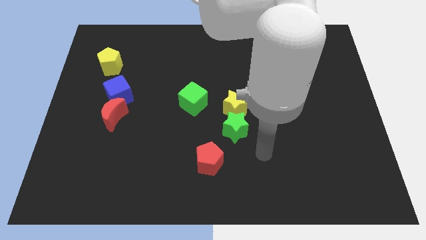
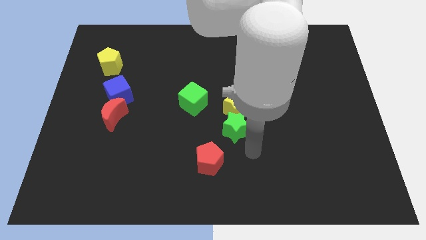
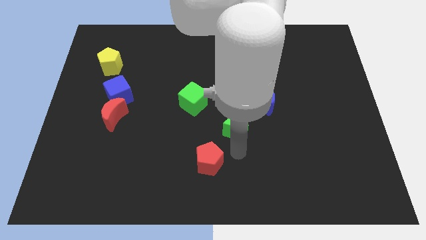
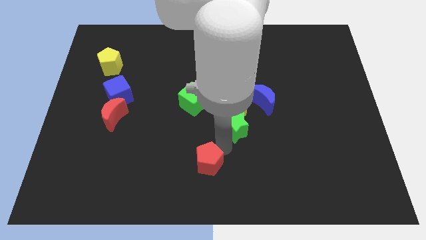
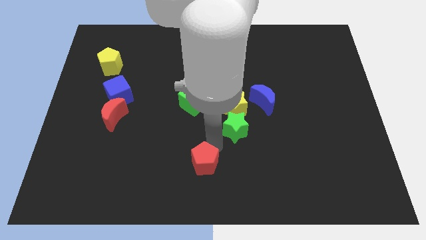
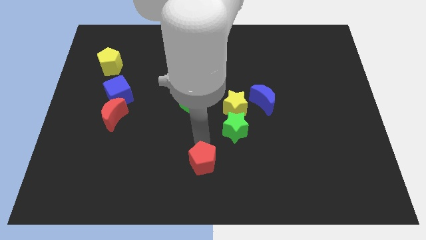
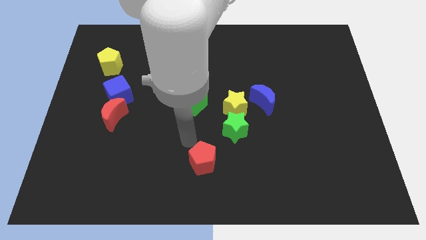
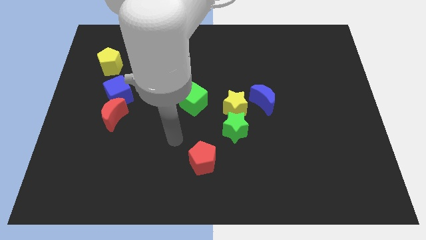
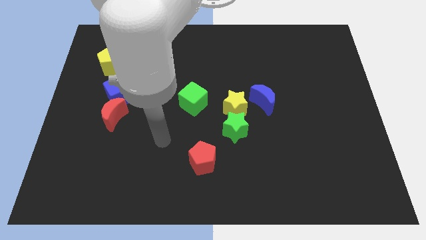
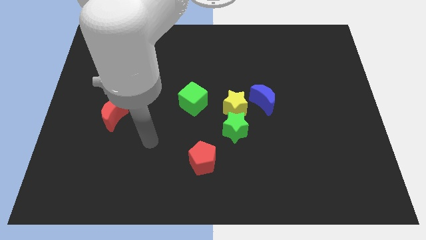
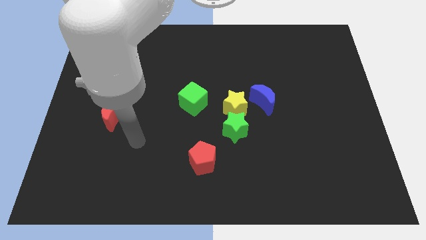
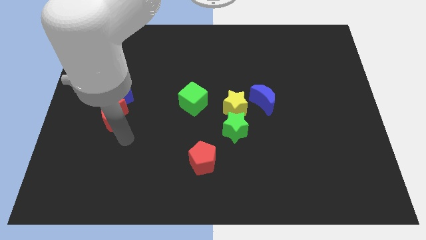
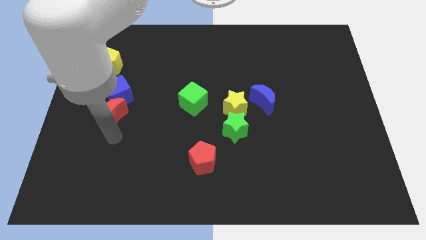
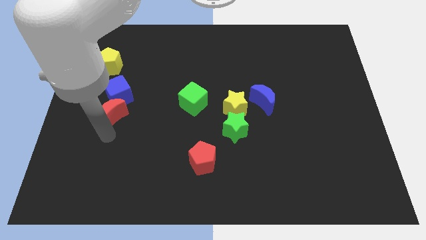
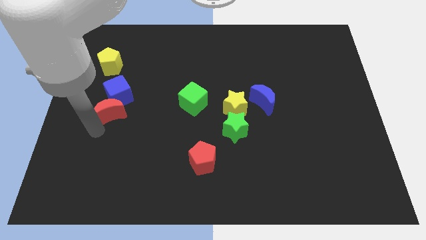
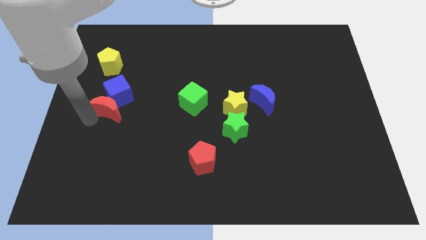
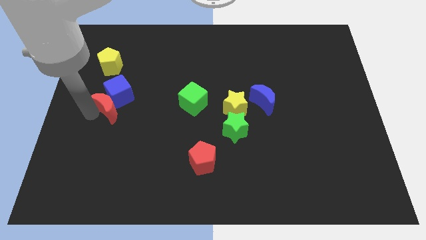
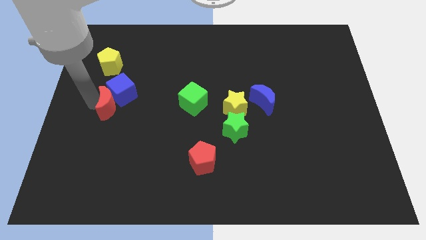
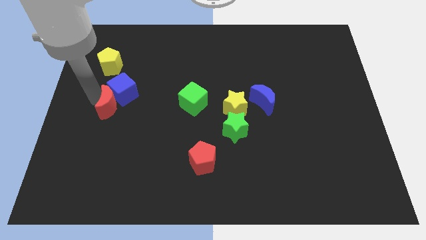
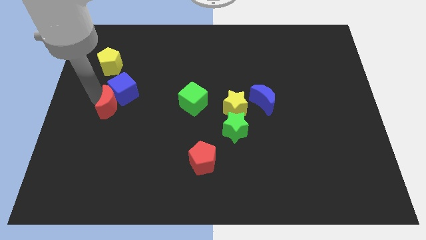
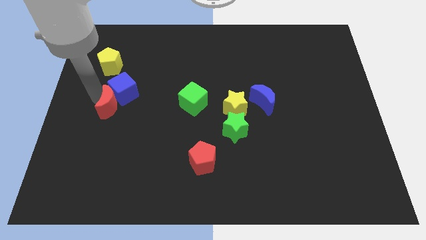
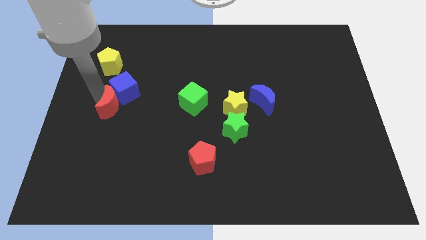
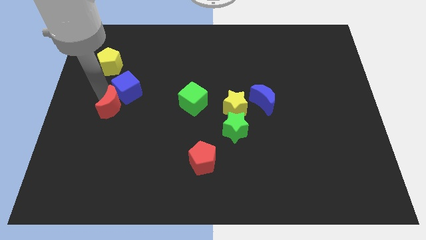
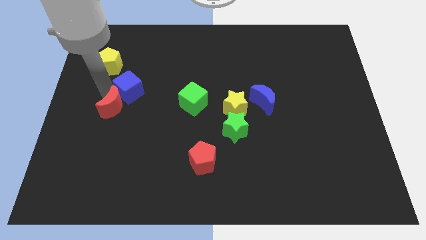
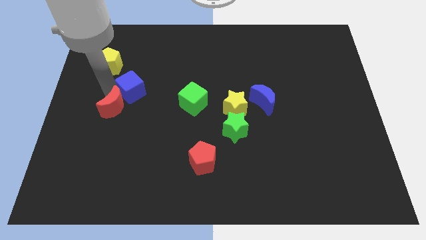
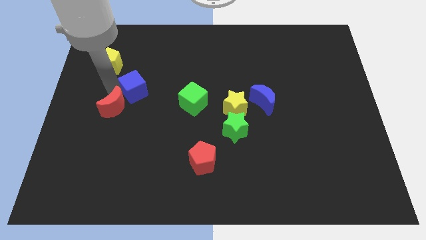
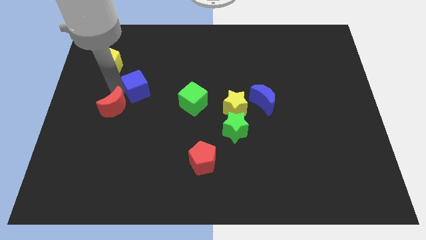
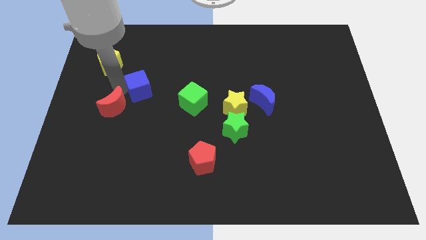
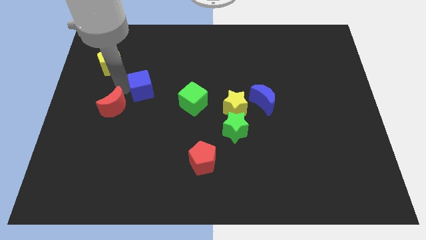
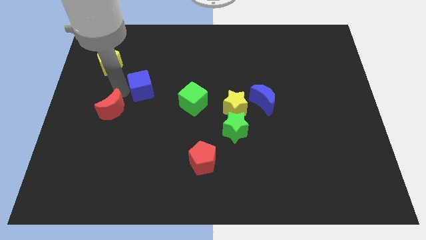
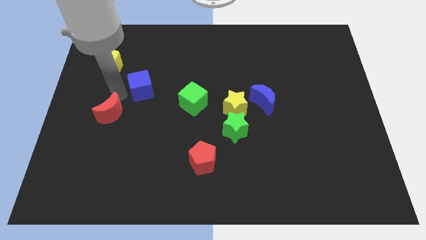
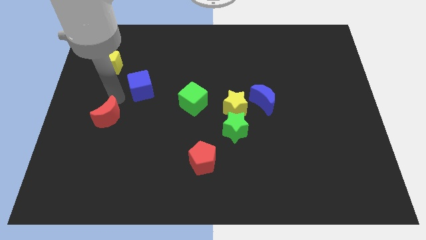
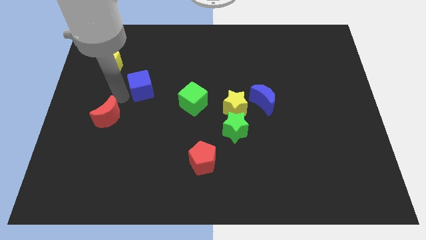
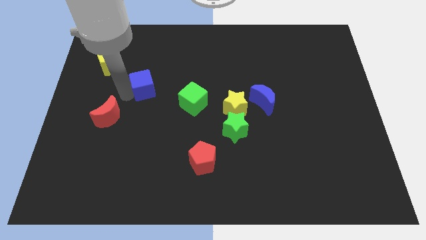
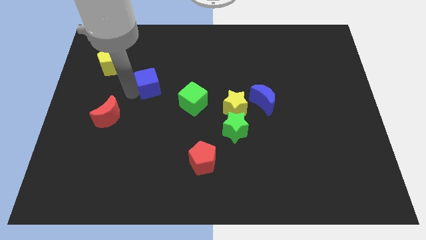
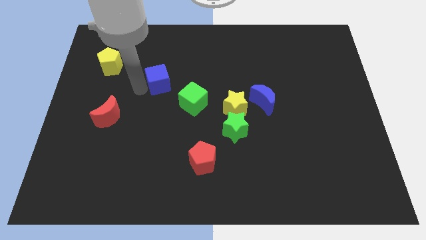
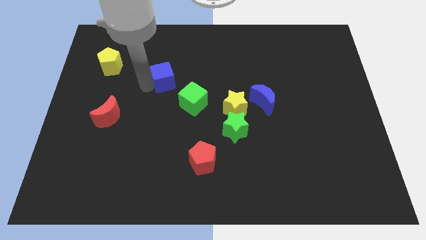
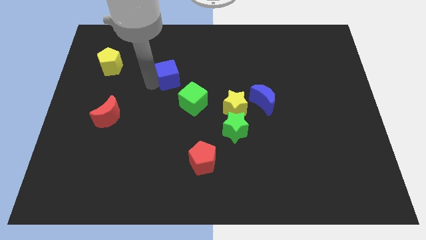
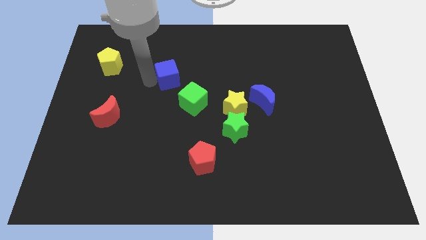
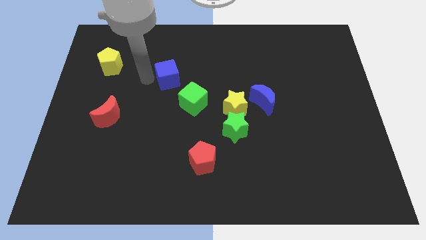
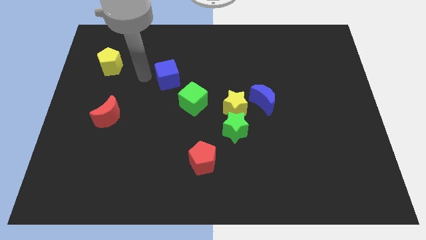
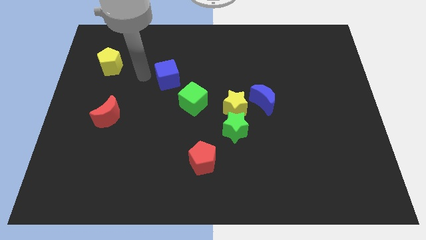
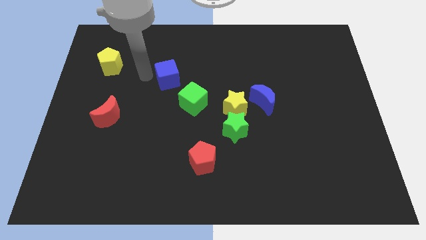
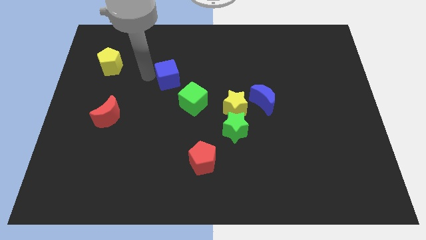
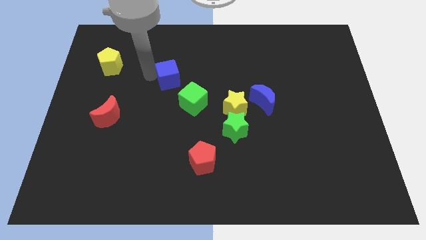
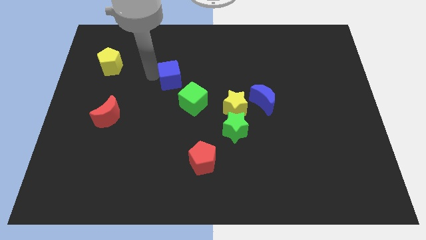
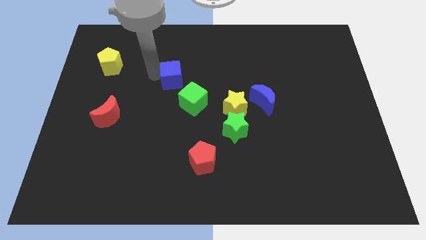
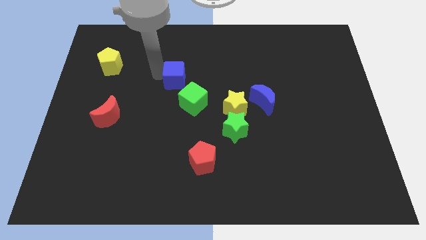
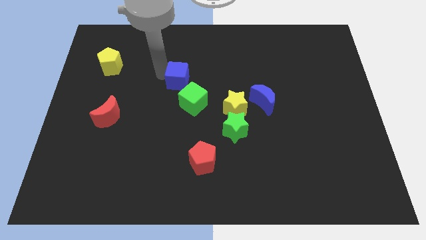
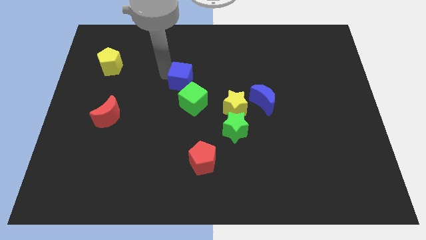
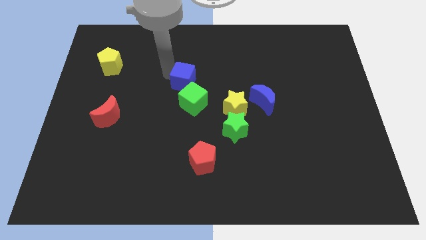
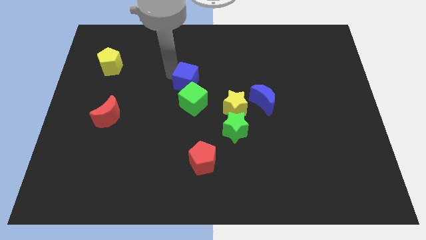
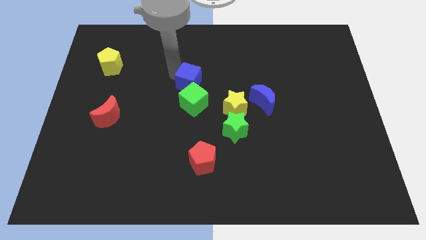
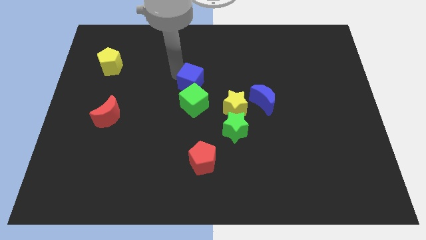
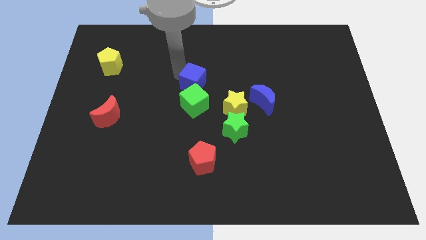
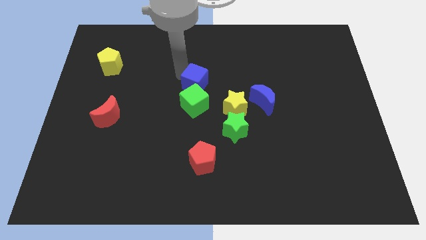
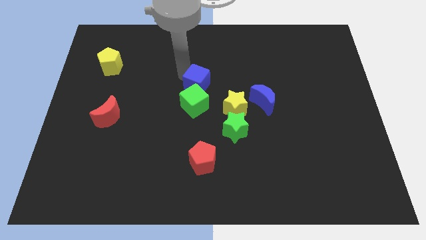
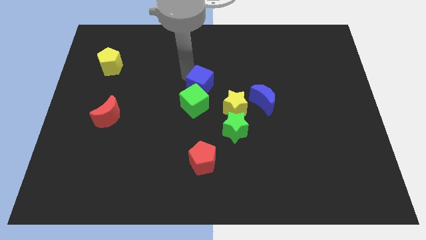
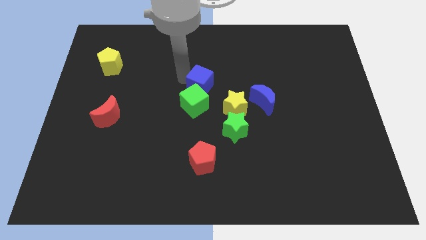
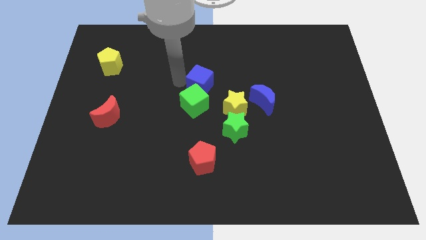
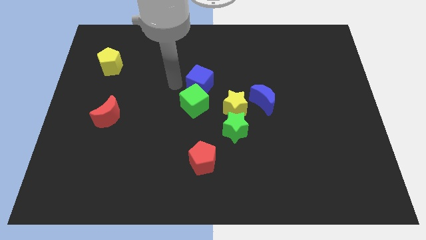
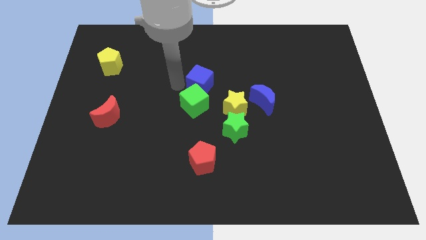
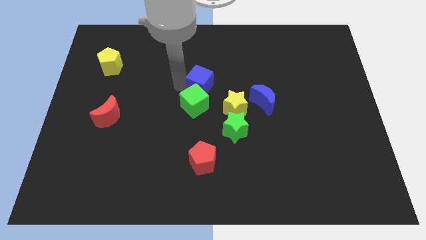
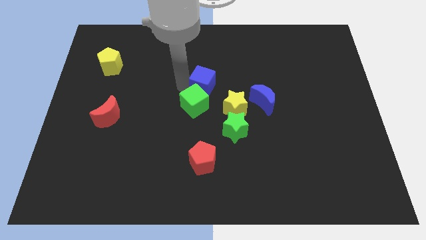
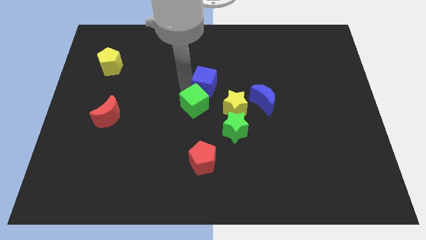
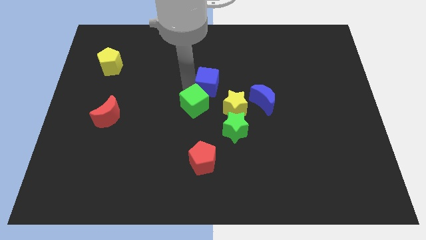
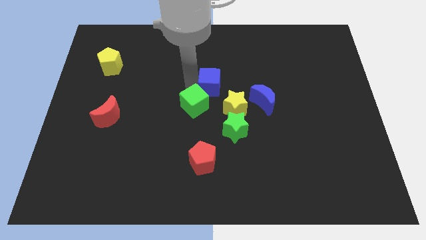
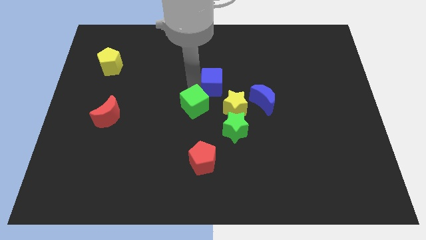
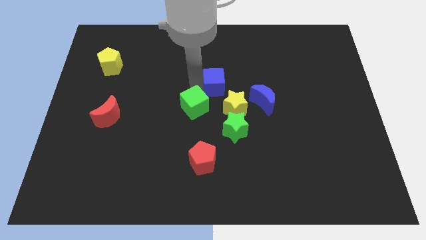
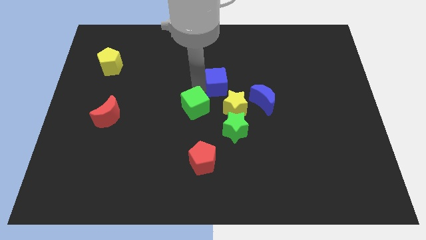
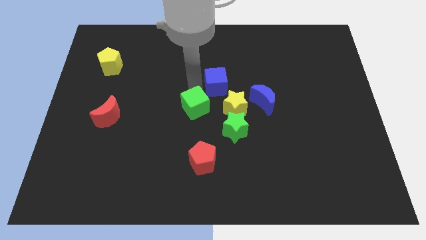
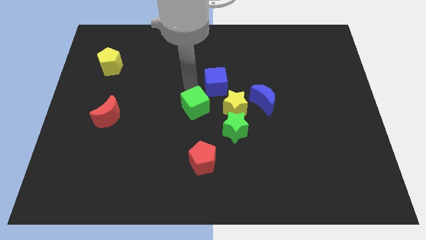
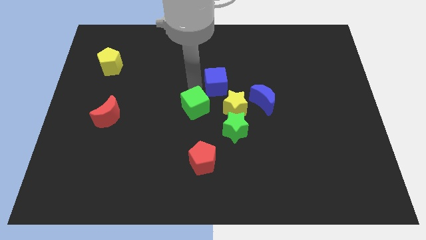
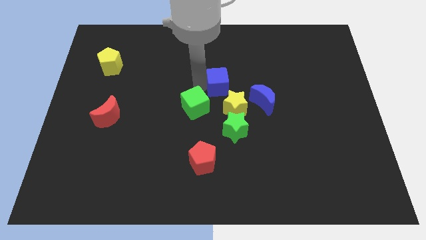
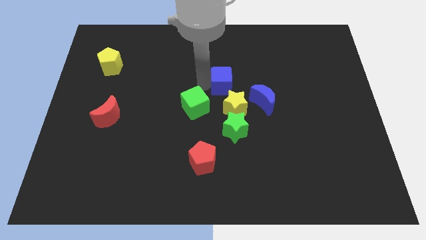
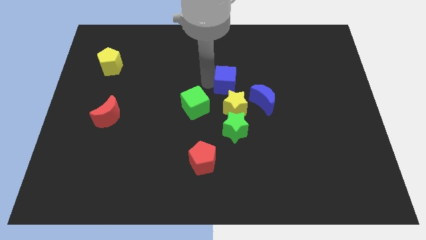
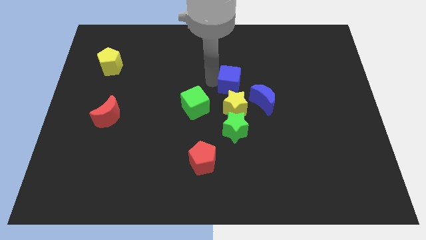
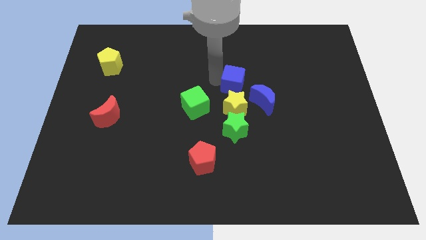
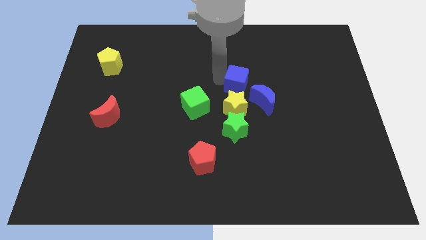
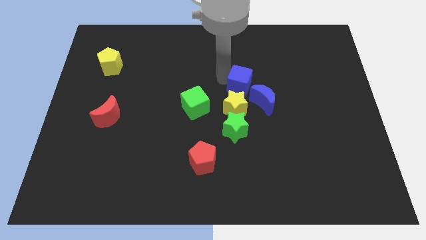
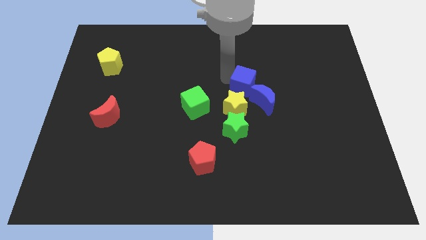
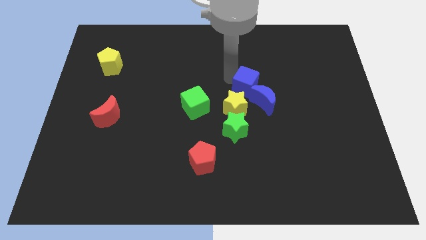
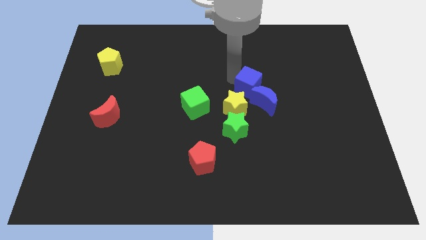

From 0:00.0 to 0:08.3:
push the blue cube next to the blue moon
